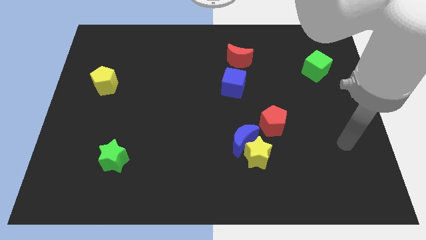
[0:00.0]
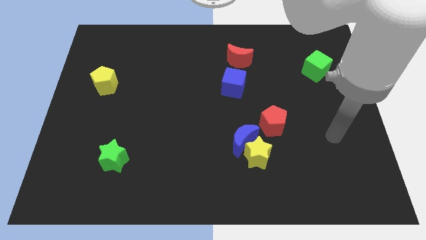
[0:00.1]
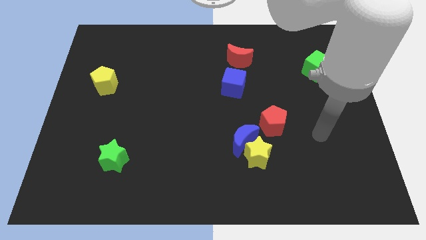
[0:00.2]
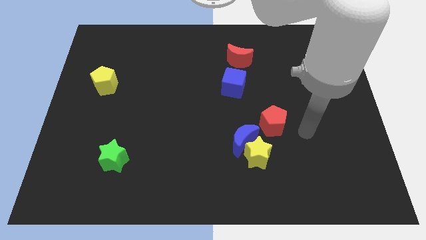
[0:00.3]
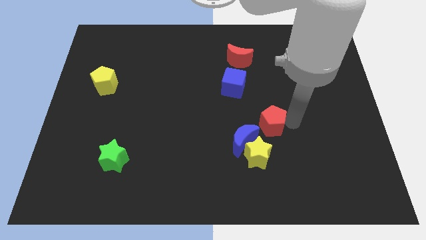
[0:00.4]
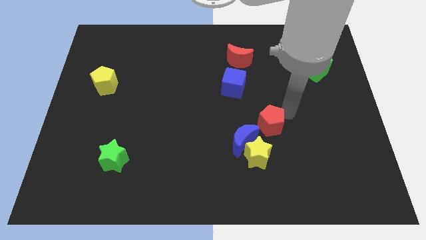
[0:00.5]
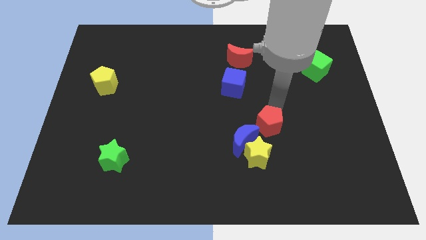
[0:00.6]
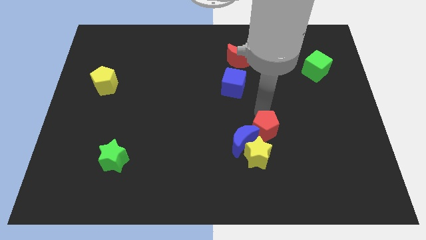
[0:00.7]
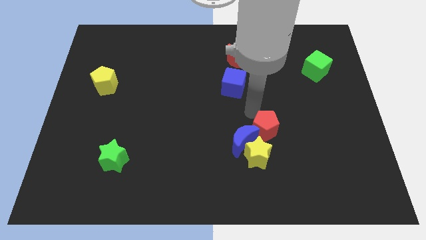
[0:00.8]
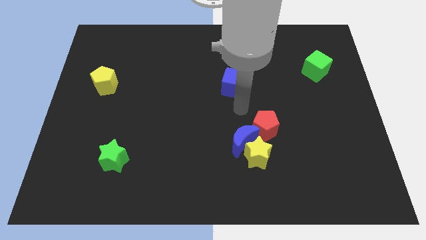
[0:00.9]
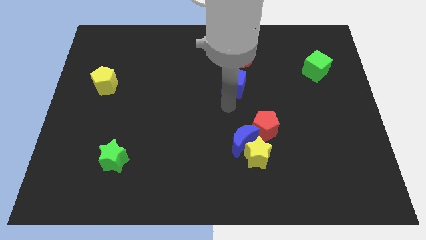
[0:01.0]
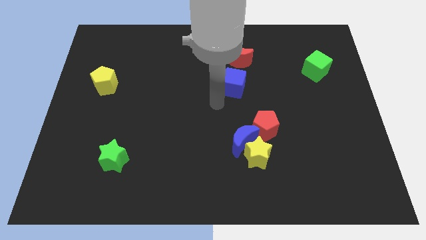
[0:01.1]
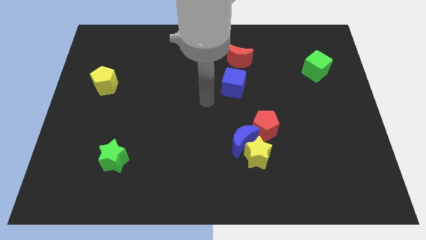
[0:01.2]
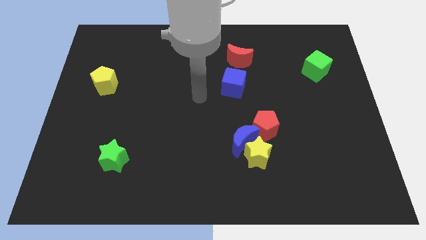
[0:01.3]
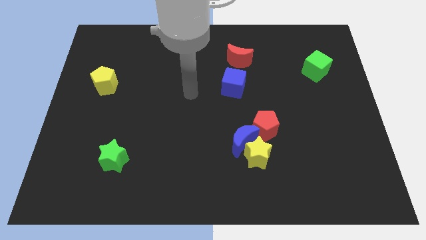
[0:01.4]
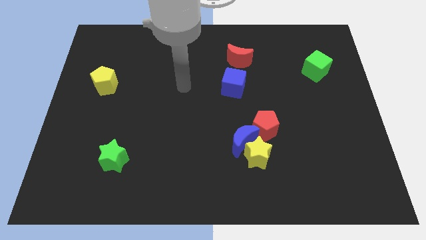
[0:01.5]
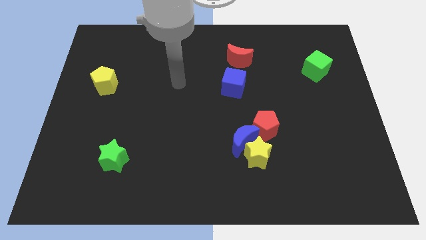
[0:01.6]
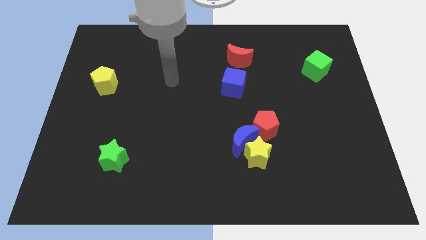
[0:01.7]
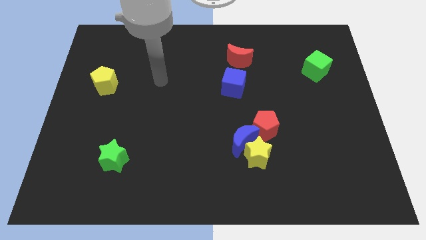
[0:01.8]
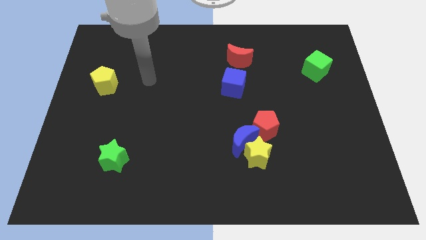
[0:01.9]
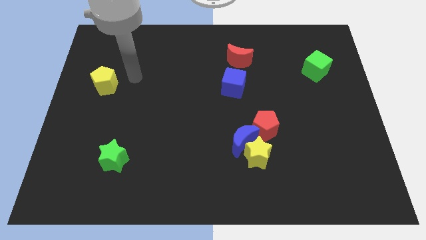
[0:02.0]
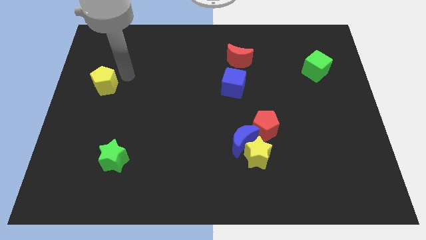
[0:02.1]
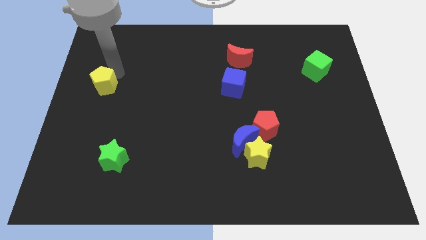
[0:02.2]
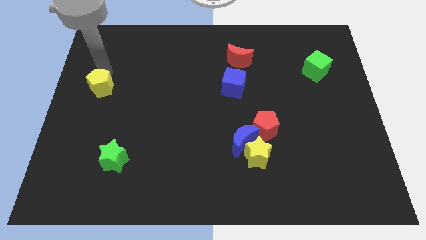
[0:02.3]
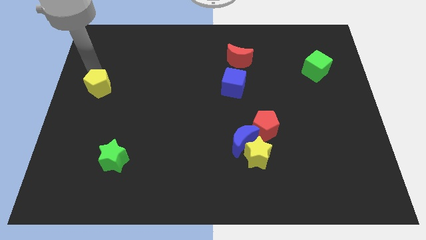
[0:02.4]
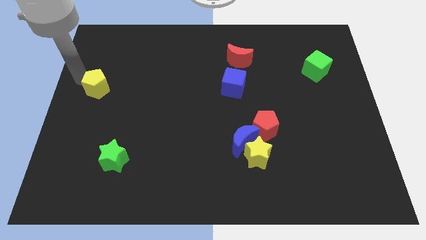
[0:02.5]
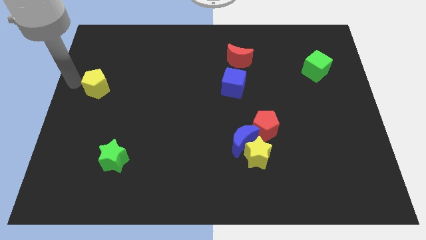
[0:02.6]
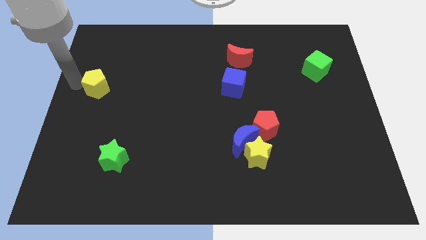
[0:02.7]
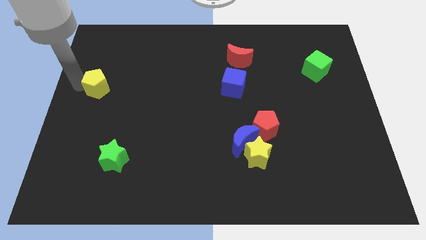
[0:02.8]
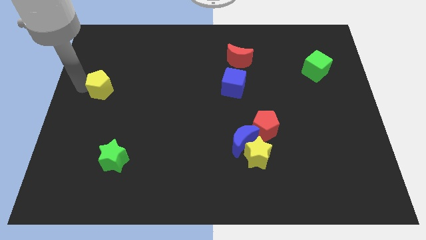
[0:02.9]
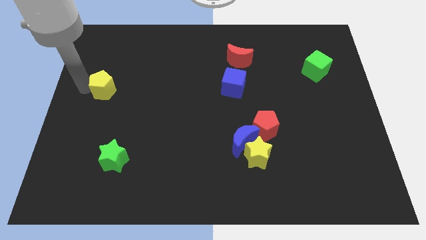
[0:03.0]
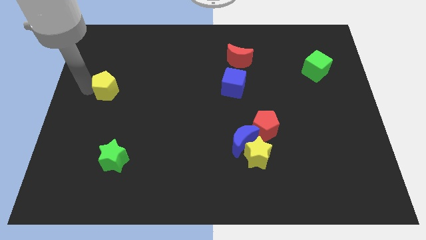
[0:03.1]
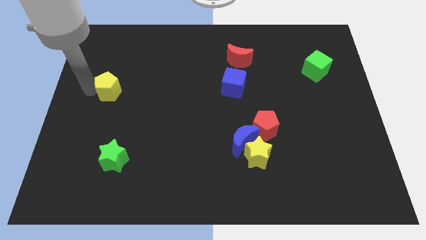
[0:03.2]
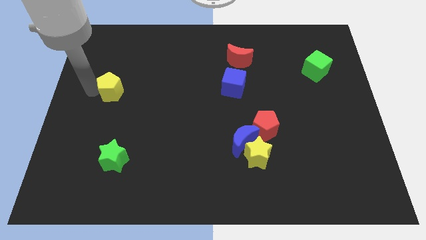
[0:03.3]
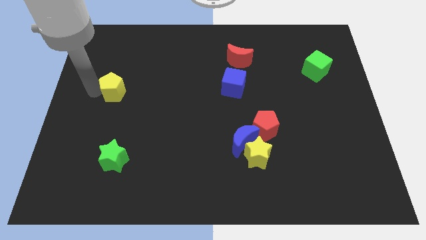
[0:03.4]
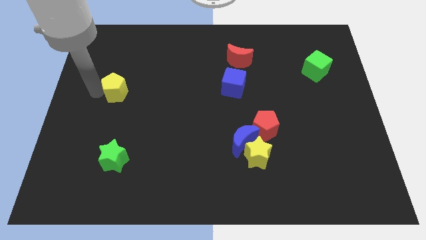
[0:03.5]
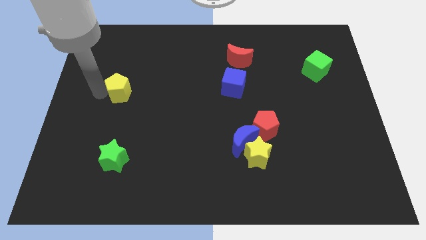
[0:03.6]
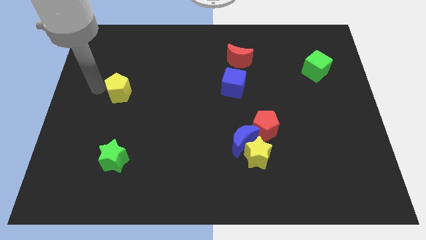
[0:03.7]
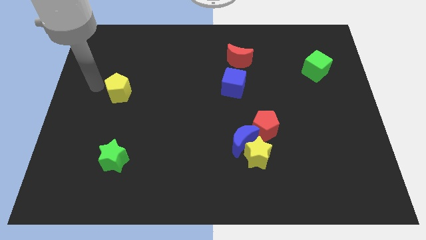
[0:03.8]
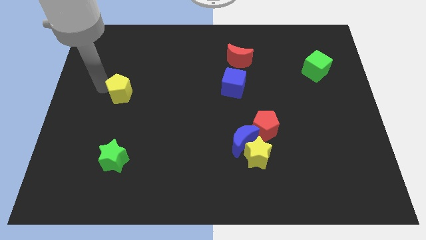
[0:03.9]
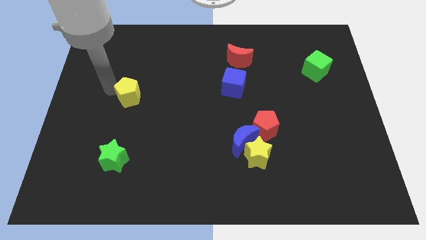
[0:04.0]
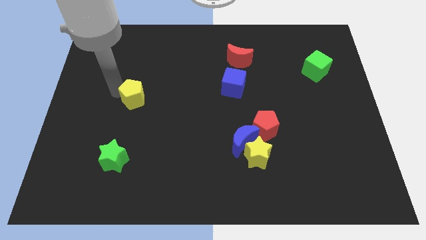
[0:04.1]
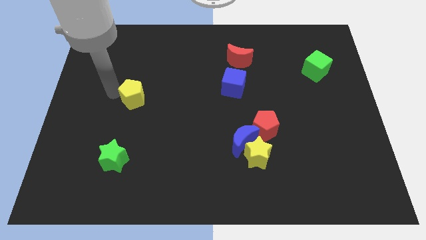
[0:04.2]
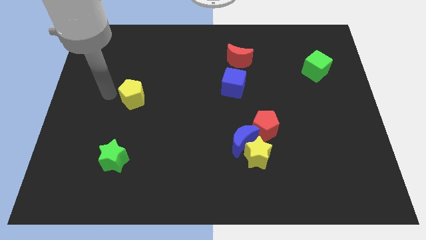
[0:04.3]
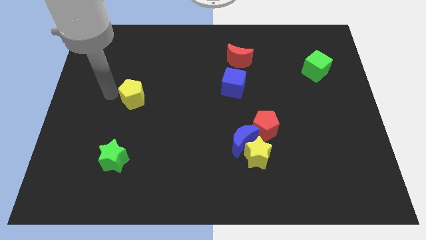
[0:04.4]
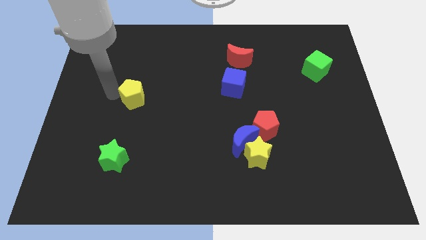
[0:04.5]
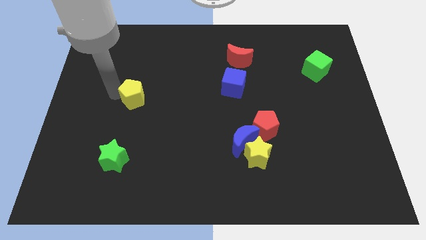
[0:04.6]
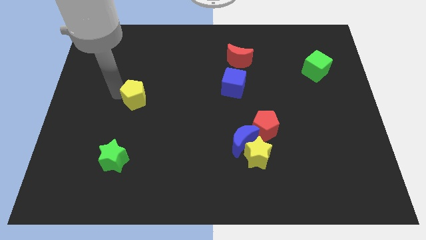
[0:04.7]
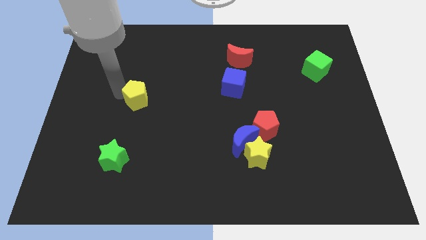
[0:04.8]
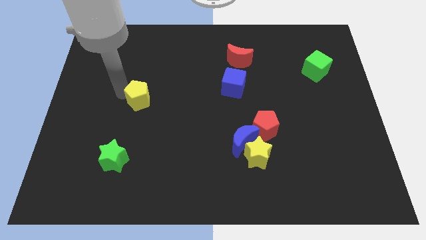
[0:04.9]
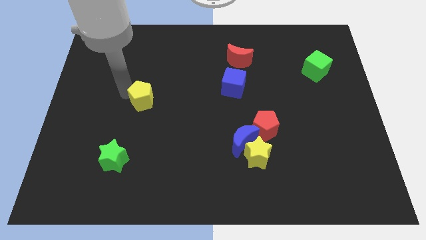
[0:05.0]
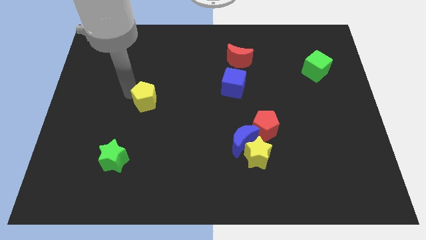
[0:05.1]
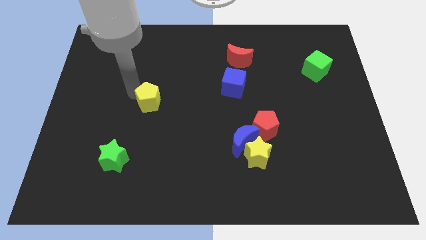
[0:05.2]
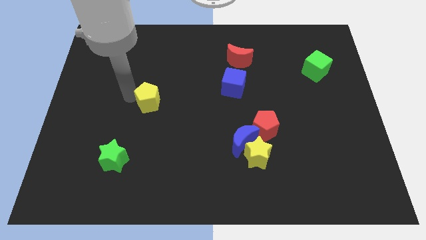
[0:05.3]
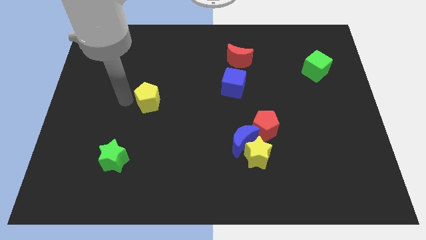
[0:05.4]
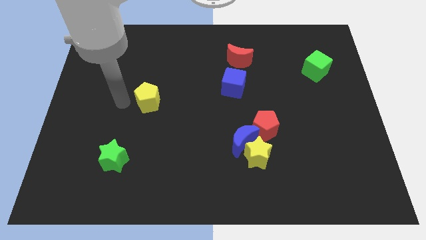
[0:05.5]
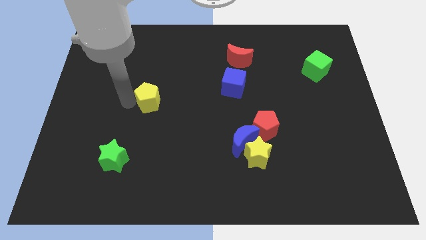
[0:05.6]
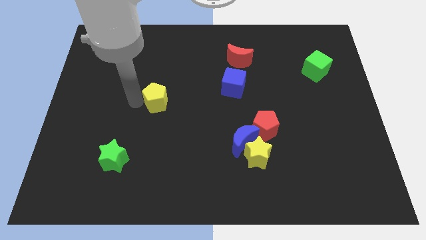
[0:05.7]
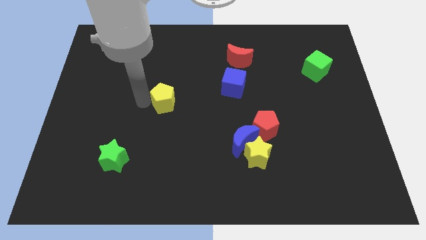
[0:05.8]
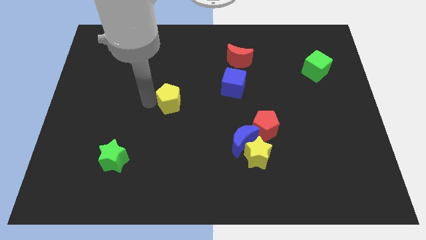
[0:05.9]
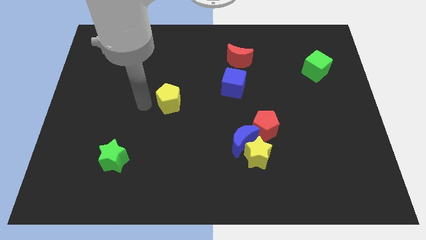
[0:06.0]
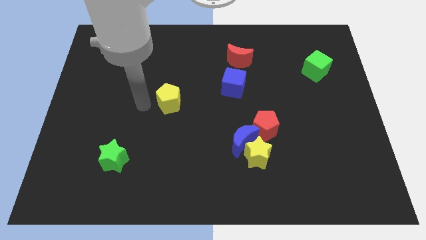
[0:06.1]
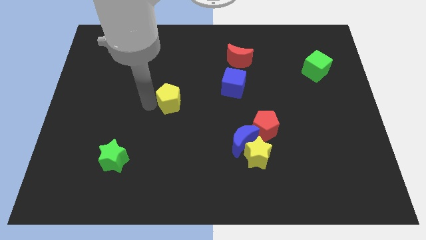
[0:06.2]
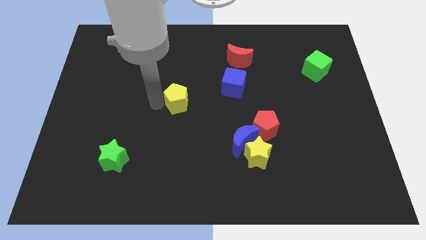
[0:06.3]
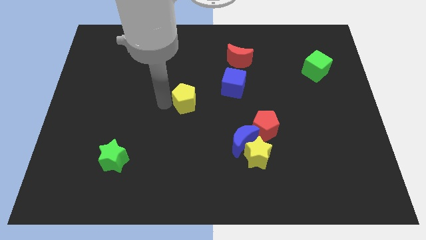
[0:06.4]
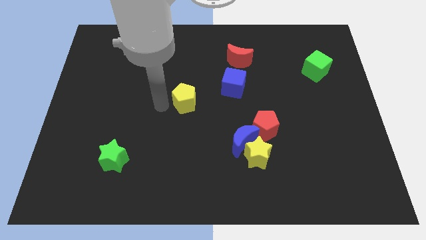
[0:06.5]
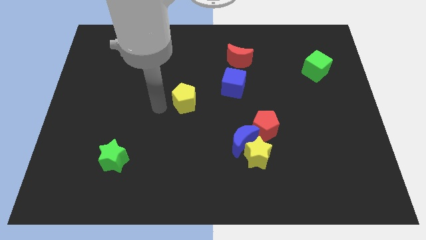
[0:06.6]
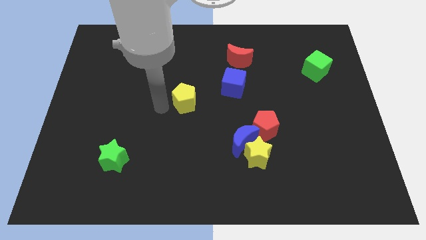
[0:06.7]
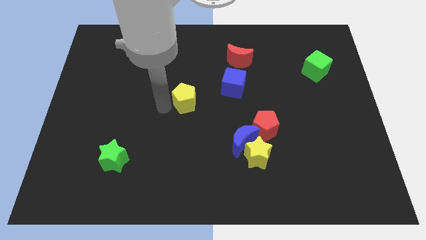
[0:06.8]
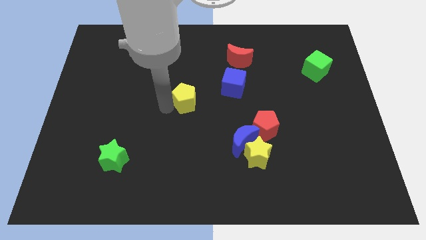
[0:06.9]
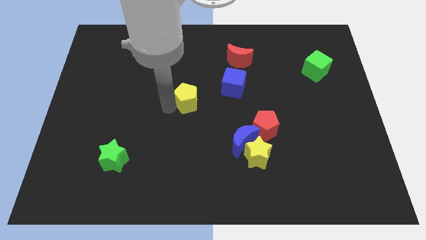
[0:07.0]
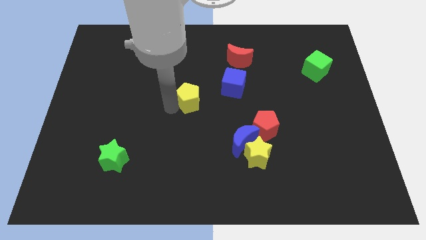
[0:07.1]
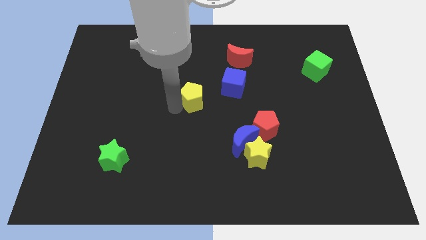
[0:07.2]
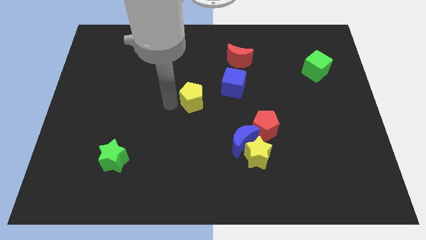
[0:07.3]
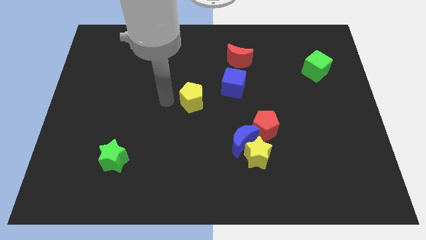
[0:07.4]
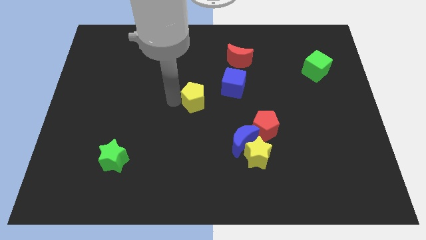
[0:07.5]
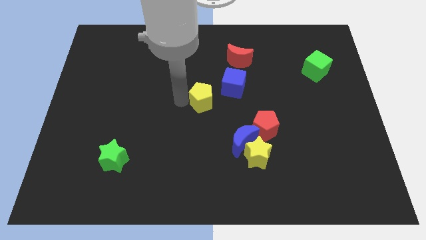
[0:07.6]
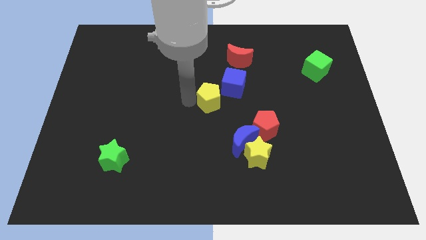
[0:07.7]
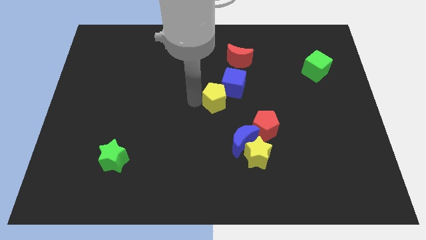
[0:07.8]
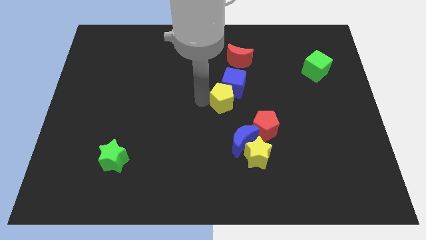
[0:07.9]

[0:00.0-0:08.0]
push the yellow pentagon to the top side of the blue moon
